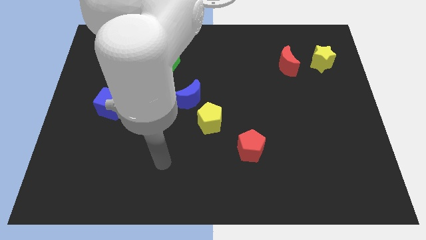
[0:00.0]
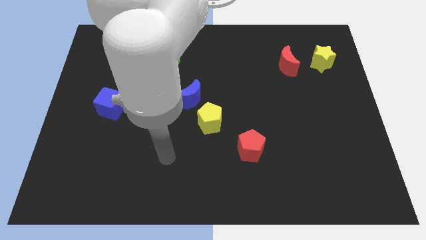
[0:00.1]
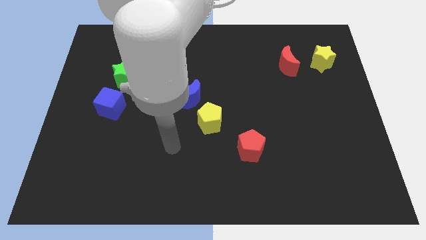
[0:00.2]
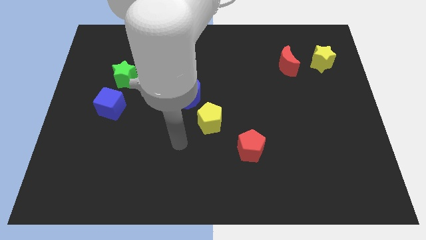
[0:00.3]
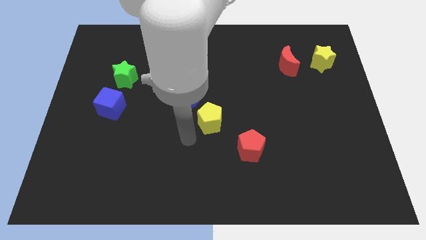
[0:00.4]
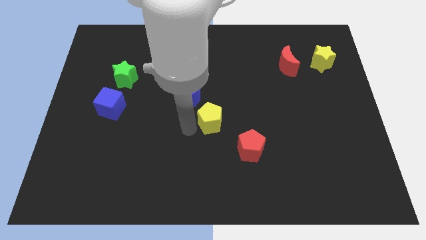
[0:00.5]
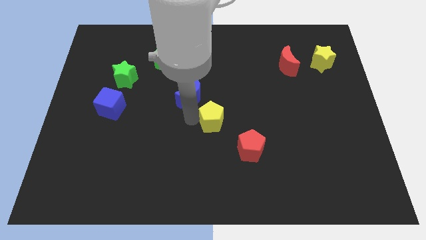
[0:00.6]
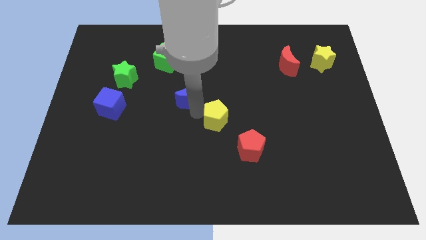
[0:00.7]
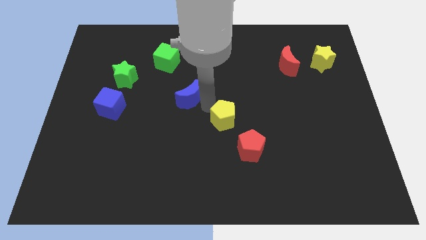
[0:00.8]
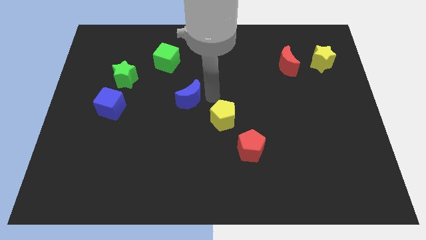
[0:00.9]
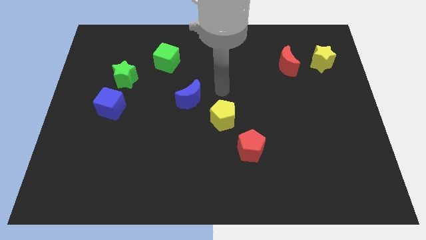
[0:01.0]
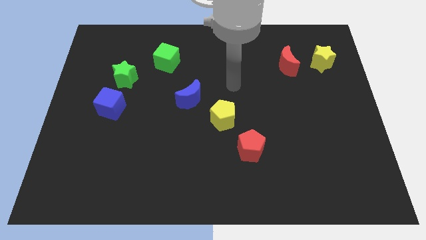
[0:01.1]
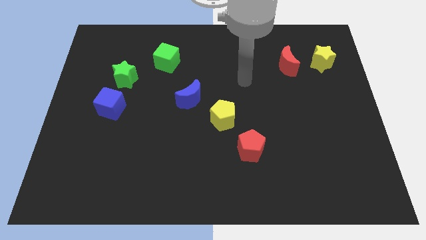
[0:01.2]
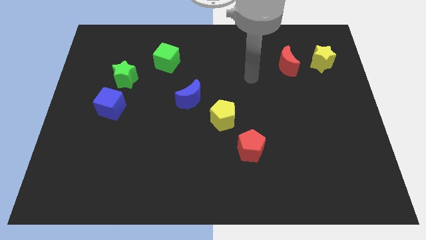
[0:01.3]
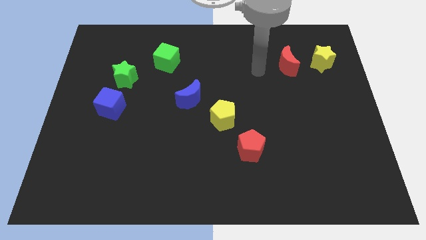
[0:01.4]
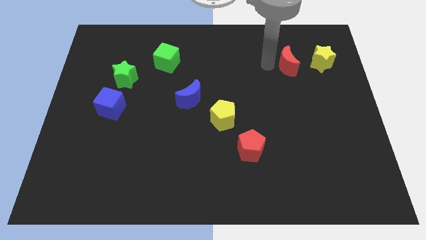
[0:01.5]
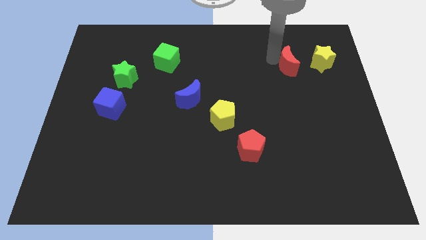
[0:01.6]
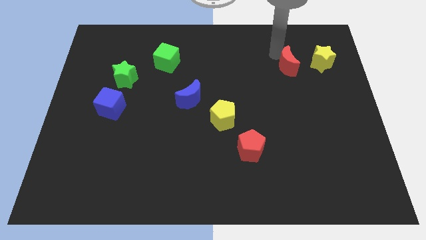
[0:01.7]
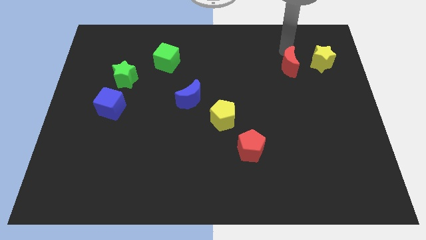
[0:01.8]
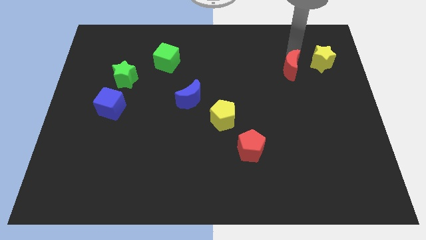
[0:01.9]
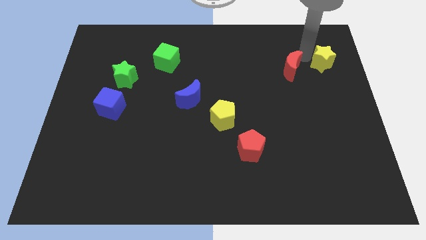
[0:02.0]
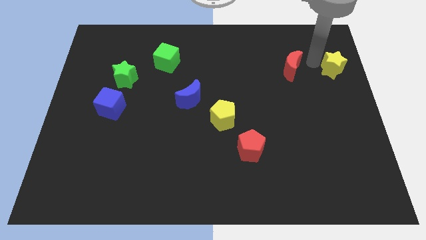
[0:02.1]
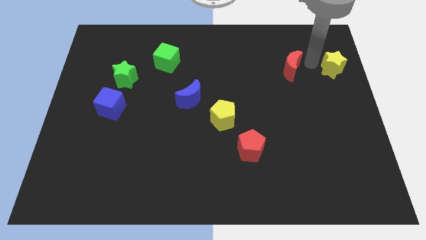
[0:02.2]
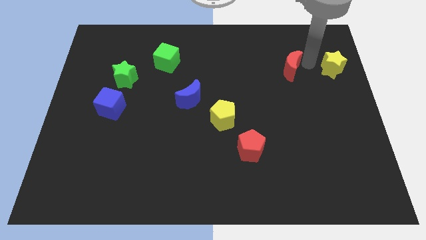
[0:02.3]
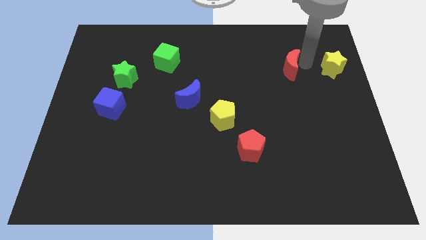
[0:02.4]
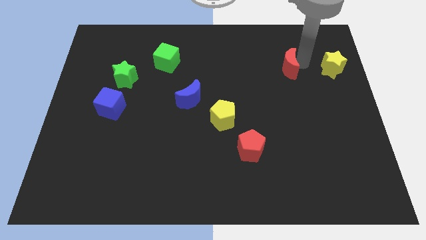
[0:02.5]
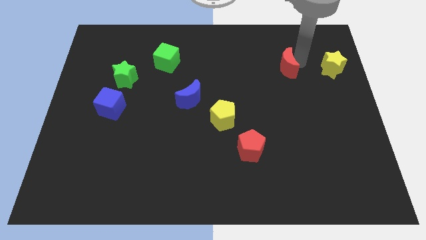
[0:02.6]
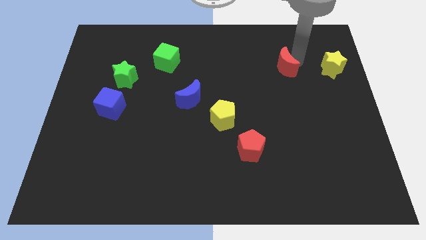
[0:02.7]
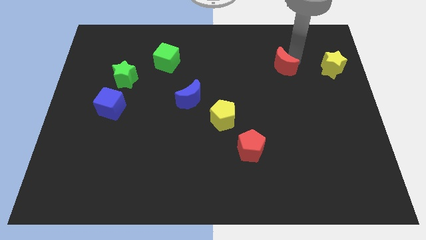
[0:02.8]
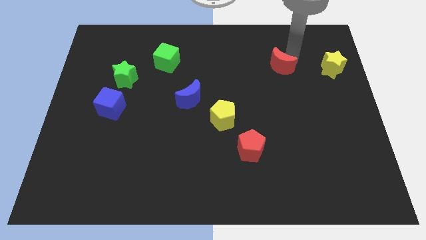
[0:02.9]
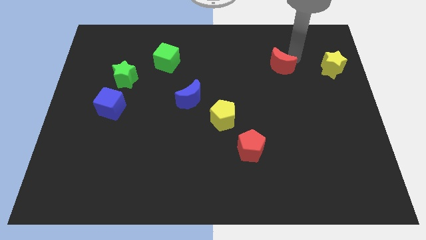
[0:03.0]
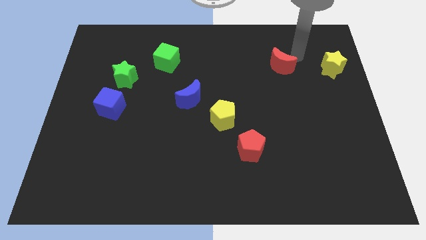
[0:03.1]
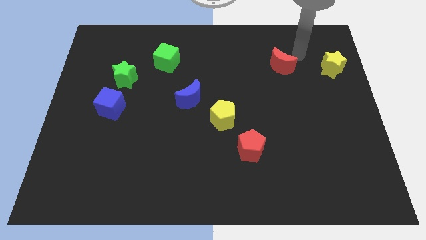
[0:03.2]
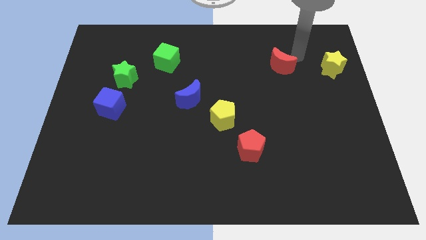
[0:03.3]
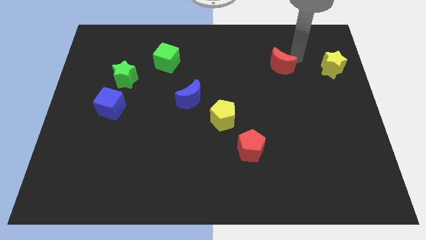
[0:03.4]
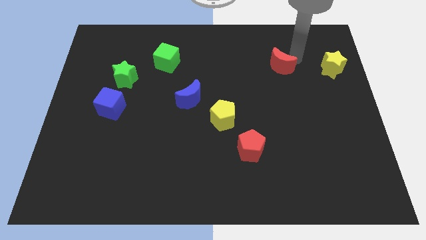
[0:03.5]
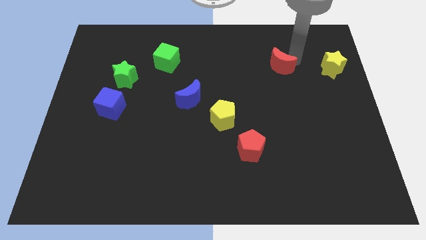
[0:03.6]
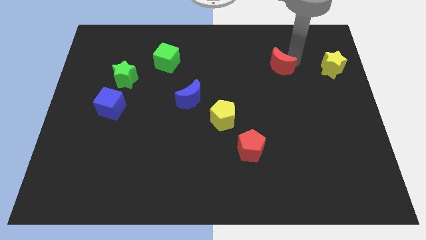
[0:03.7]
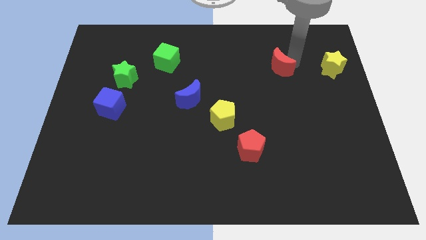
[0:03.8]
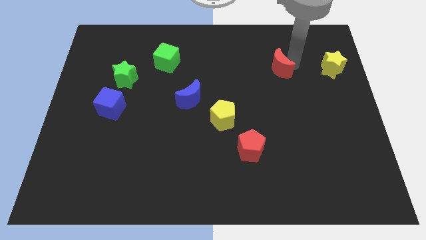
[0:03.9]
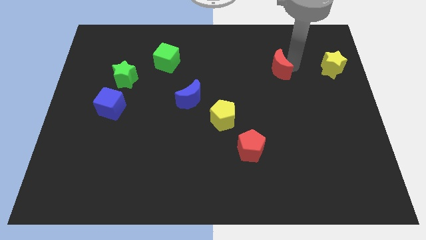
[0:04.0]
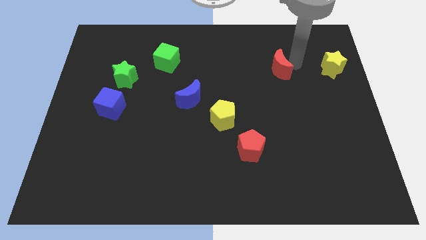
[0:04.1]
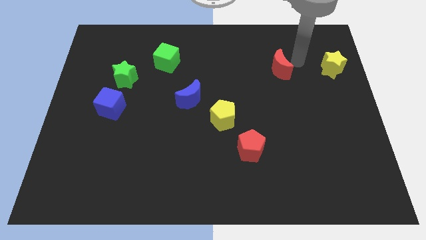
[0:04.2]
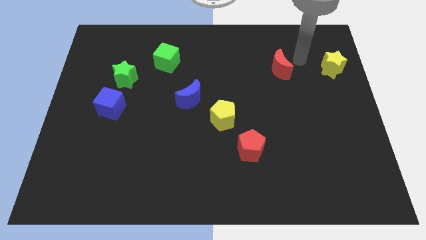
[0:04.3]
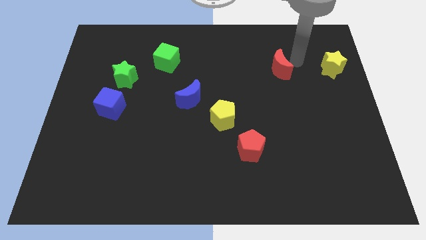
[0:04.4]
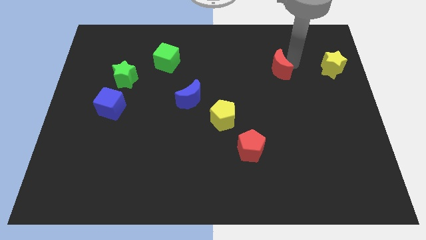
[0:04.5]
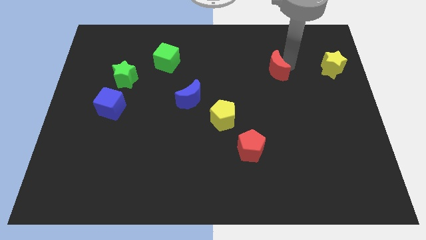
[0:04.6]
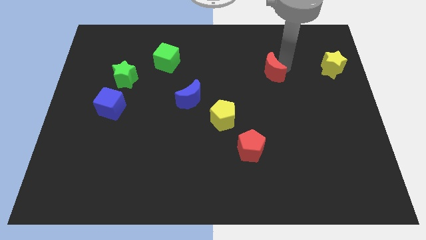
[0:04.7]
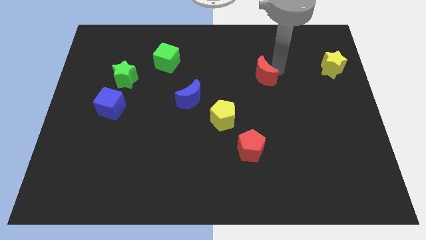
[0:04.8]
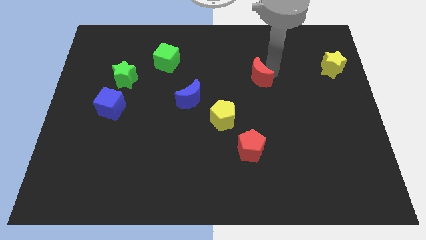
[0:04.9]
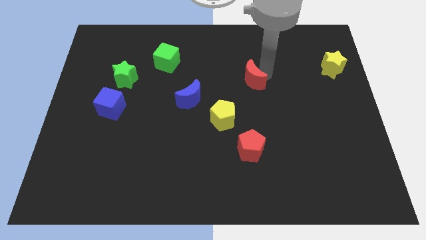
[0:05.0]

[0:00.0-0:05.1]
put the red moon to the middle of the board

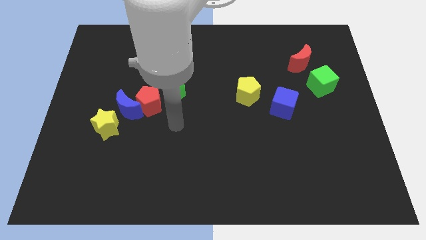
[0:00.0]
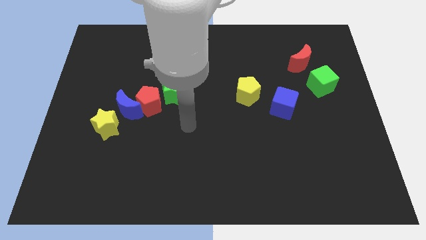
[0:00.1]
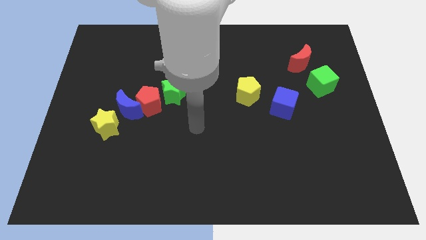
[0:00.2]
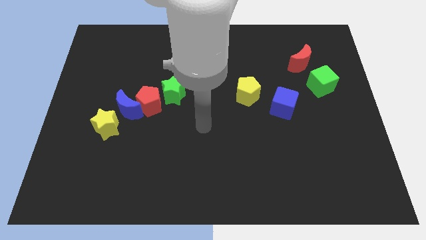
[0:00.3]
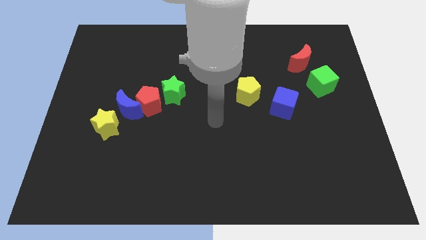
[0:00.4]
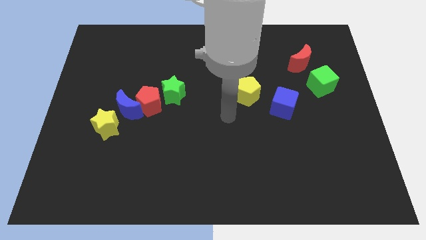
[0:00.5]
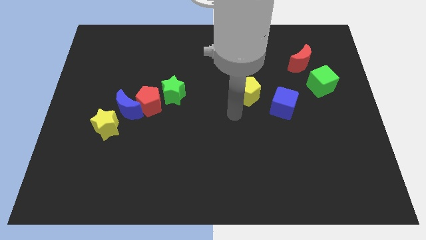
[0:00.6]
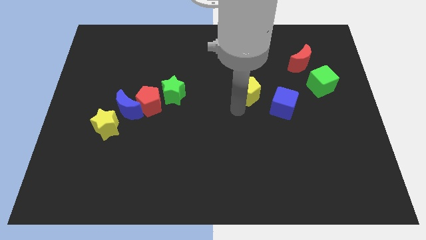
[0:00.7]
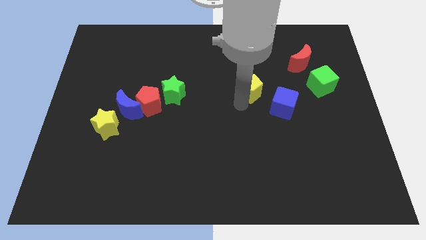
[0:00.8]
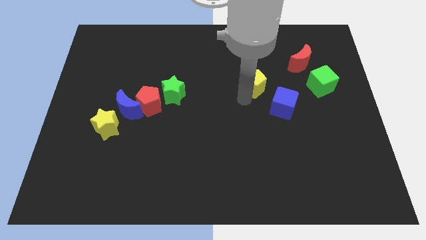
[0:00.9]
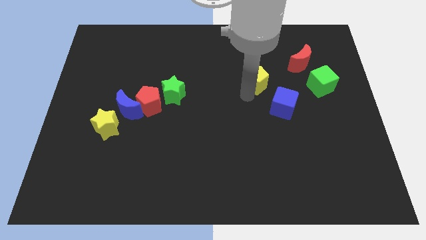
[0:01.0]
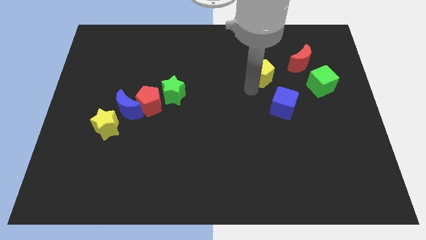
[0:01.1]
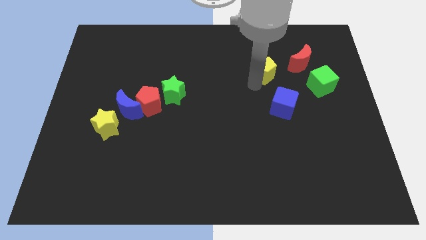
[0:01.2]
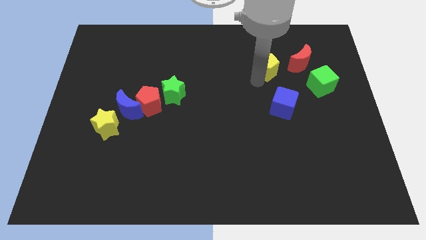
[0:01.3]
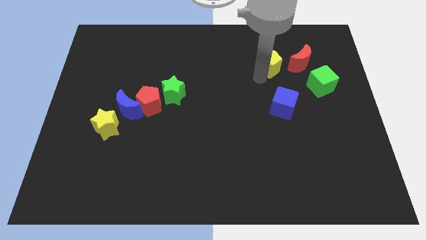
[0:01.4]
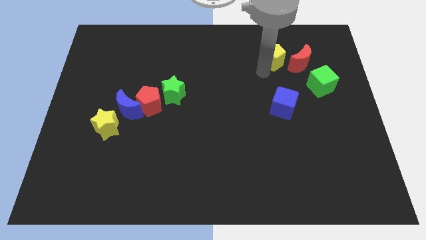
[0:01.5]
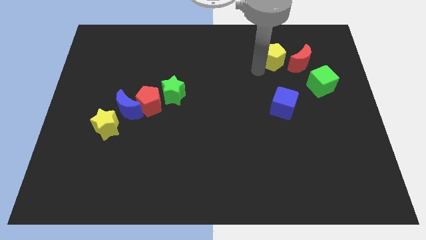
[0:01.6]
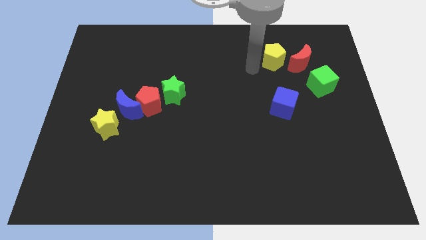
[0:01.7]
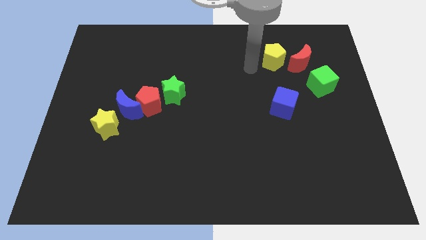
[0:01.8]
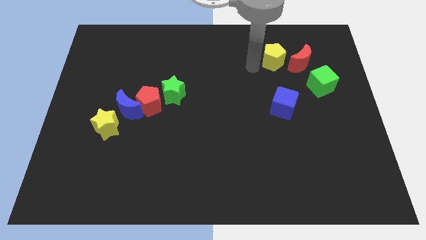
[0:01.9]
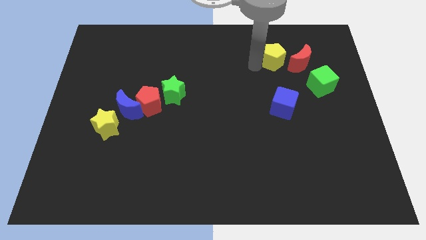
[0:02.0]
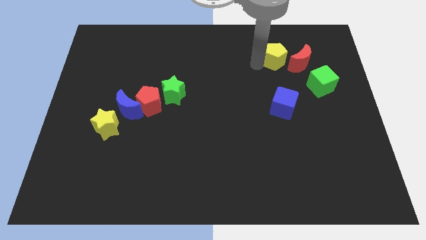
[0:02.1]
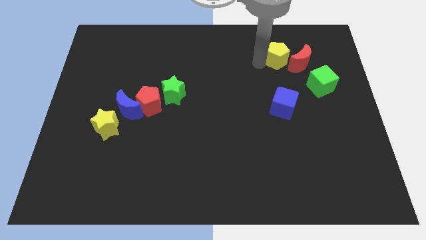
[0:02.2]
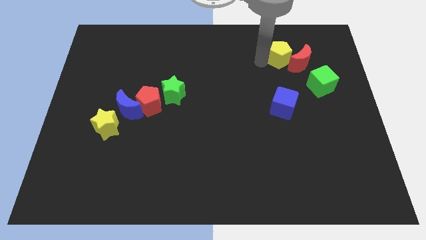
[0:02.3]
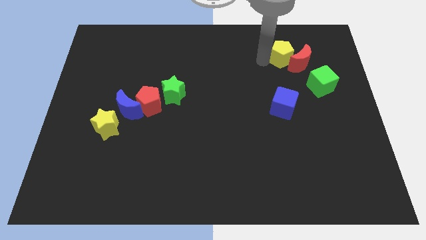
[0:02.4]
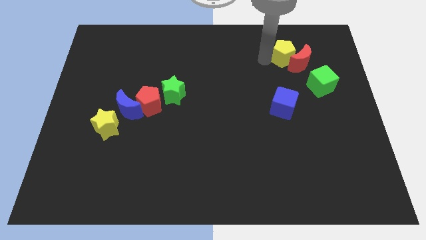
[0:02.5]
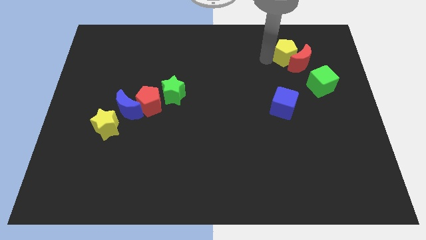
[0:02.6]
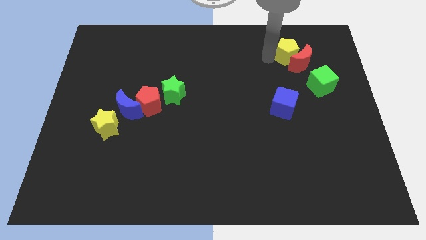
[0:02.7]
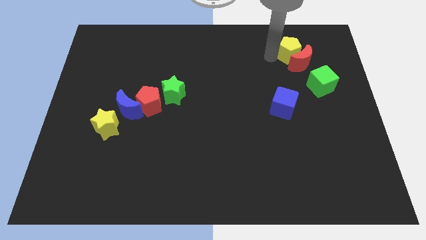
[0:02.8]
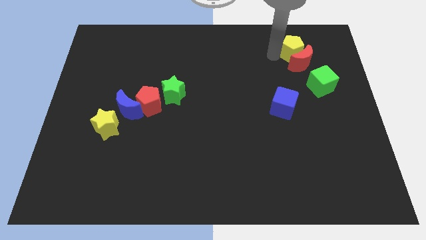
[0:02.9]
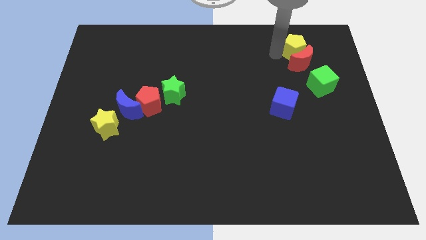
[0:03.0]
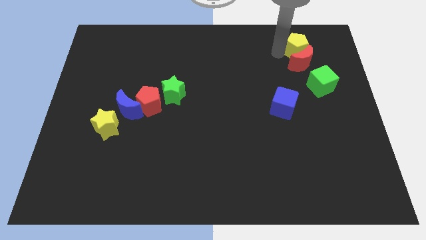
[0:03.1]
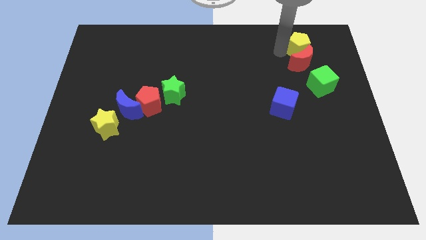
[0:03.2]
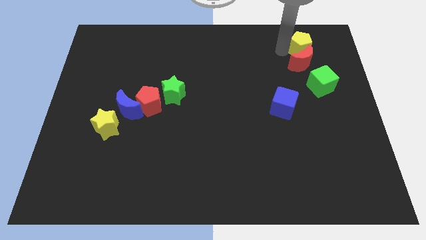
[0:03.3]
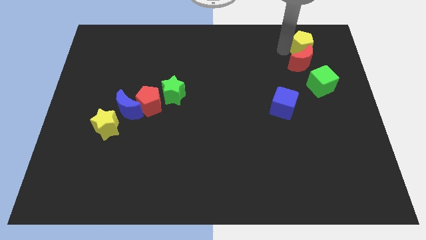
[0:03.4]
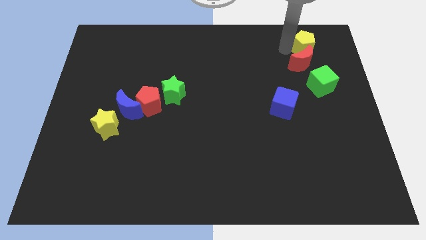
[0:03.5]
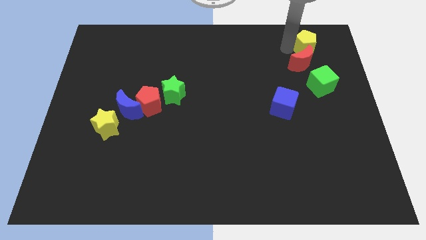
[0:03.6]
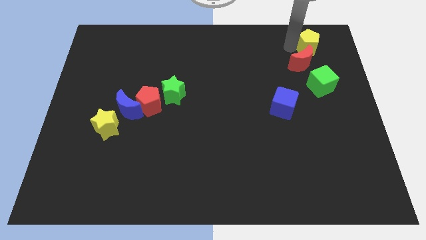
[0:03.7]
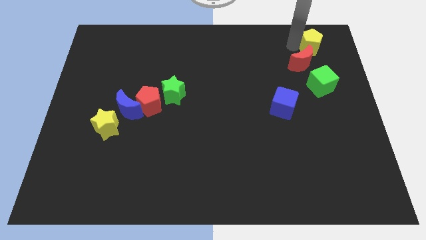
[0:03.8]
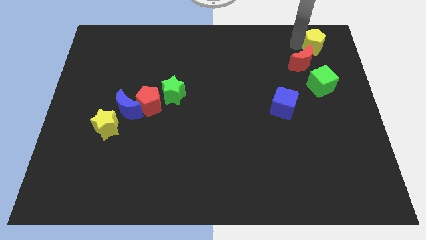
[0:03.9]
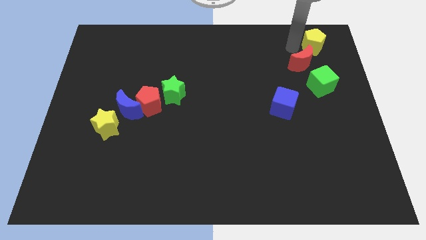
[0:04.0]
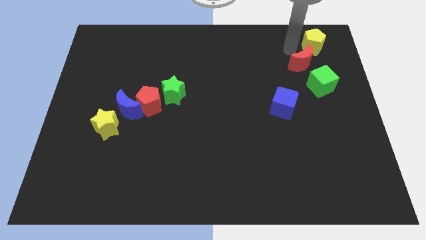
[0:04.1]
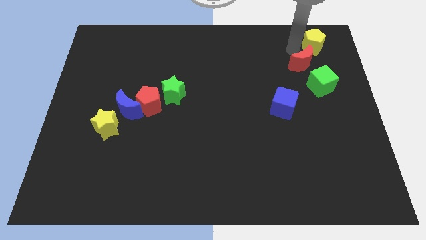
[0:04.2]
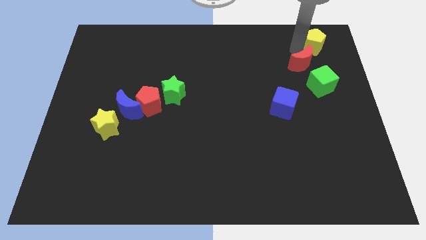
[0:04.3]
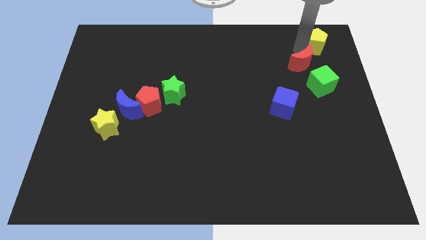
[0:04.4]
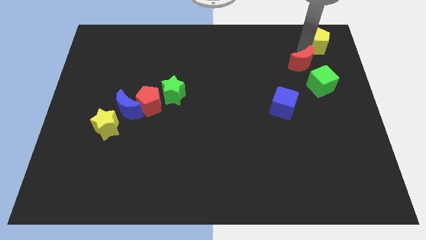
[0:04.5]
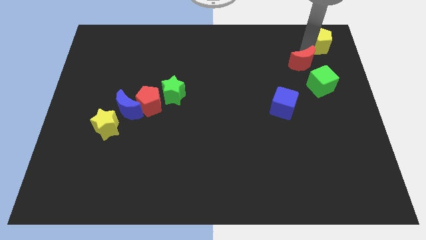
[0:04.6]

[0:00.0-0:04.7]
push the yellow pentagon to the upper right corner
